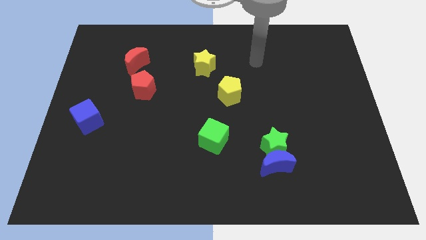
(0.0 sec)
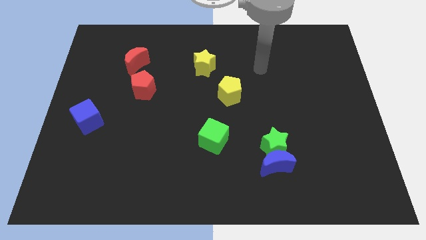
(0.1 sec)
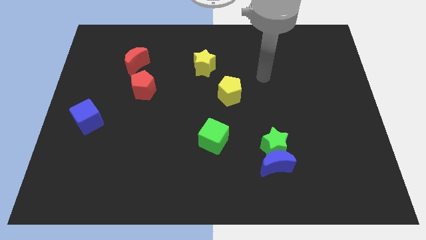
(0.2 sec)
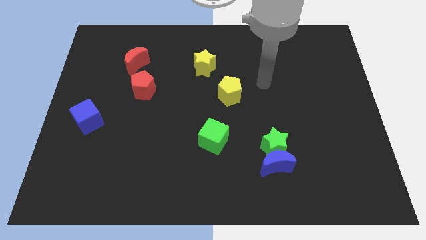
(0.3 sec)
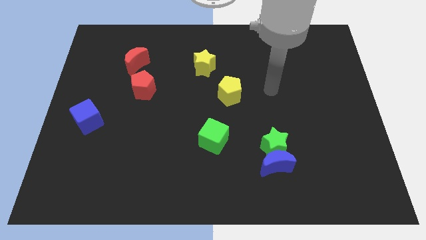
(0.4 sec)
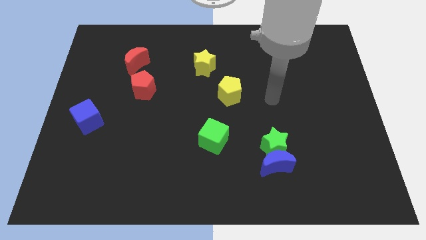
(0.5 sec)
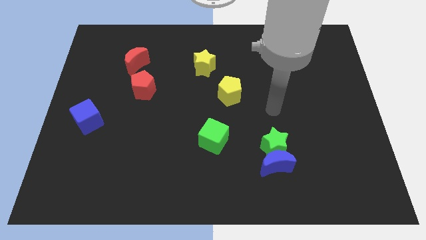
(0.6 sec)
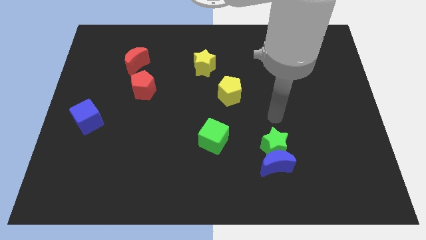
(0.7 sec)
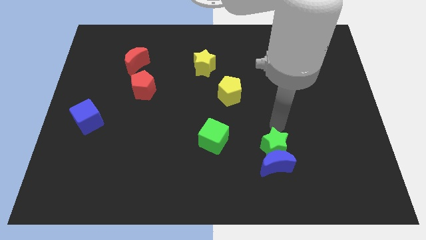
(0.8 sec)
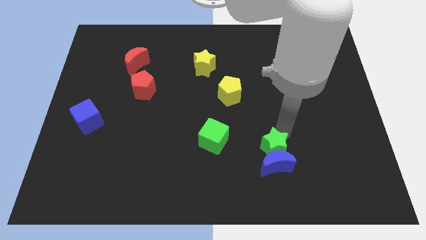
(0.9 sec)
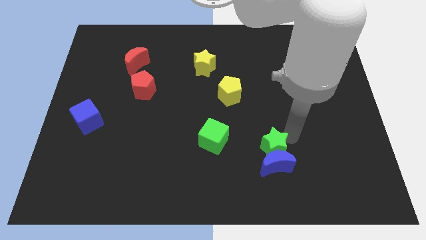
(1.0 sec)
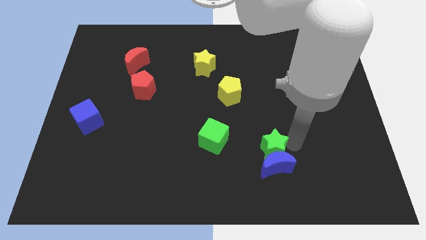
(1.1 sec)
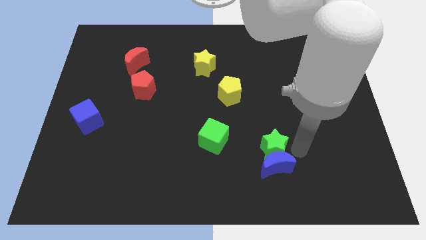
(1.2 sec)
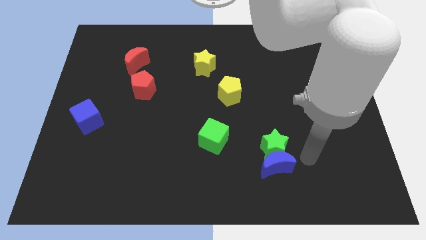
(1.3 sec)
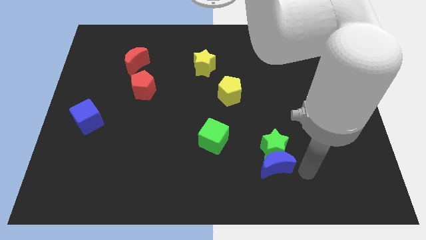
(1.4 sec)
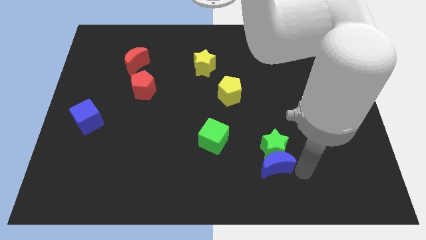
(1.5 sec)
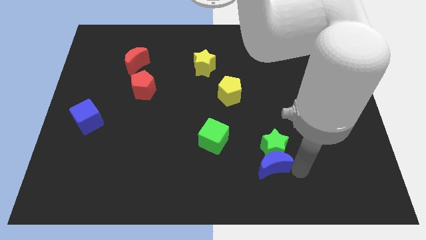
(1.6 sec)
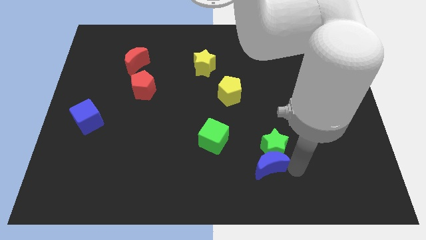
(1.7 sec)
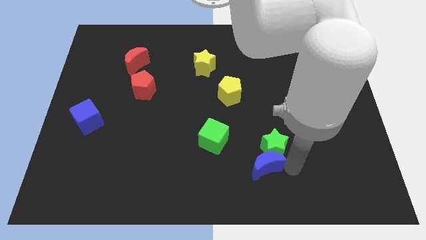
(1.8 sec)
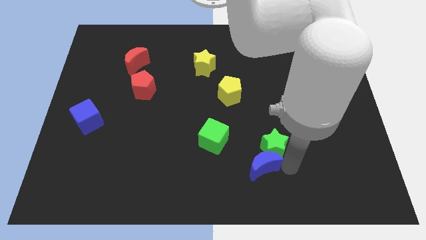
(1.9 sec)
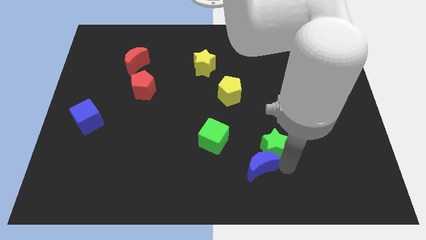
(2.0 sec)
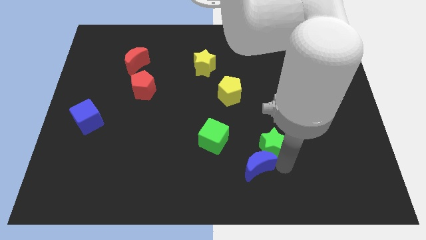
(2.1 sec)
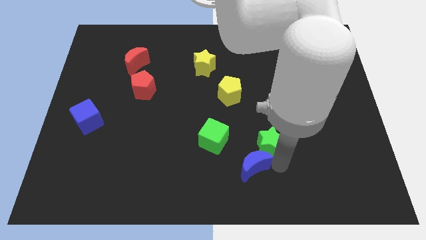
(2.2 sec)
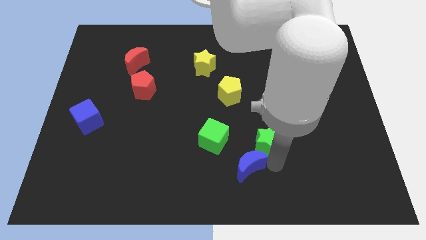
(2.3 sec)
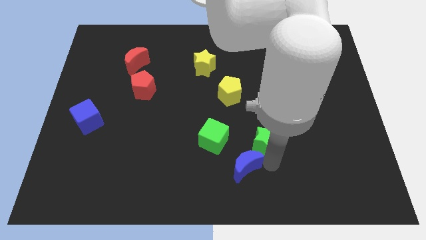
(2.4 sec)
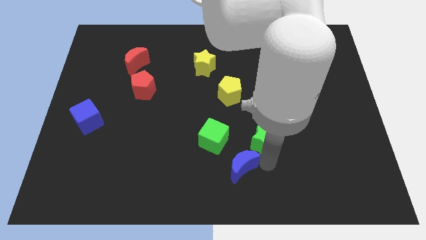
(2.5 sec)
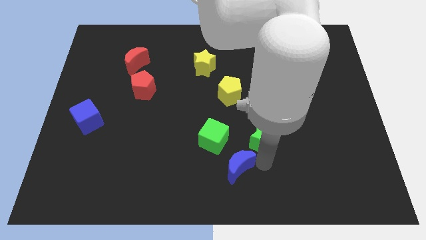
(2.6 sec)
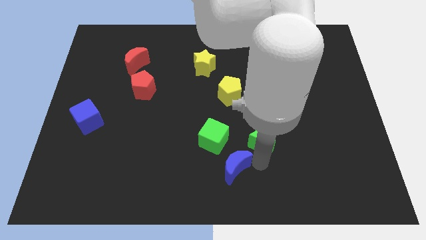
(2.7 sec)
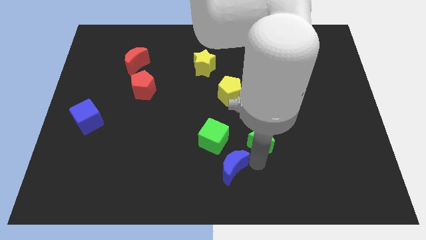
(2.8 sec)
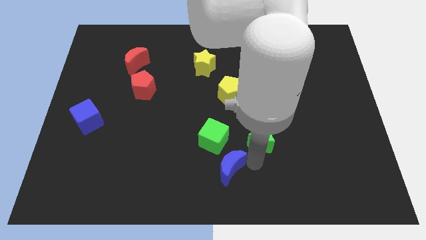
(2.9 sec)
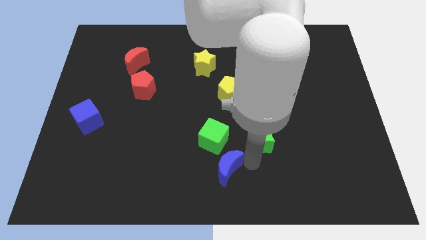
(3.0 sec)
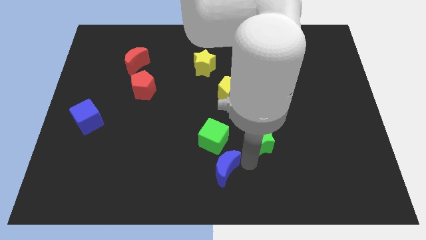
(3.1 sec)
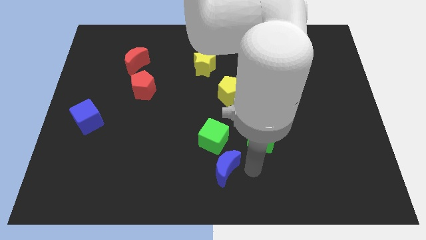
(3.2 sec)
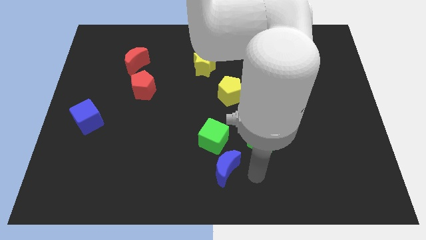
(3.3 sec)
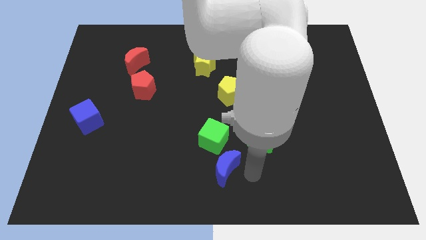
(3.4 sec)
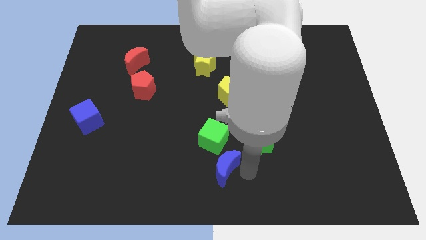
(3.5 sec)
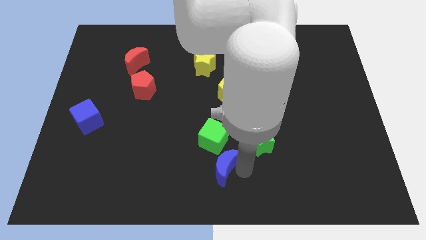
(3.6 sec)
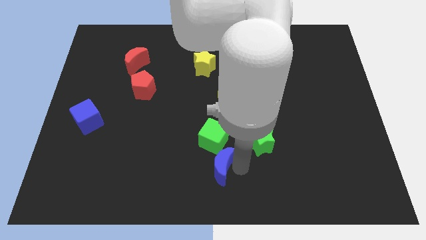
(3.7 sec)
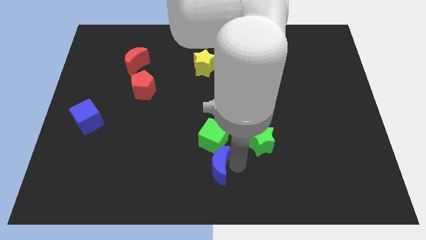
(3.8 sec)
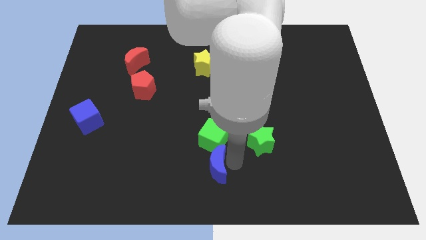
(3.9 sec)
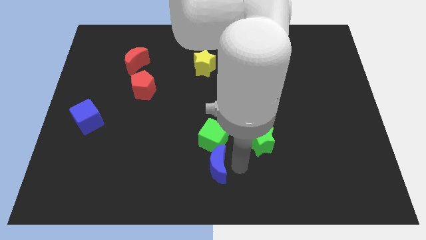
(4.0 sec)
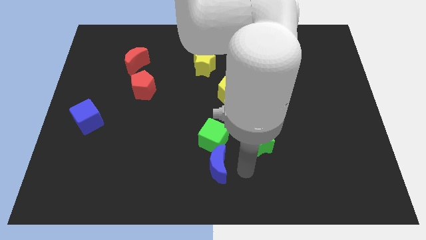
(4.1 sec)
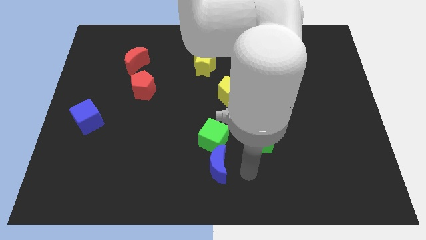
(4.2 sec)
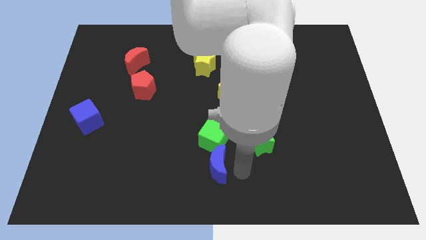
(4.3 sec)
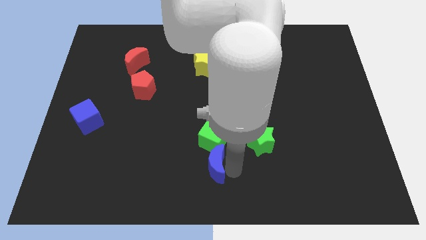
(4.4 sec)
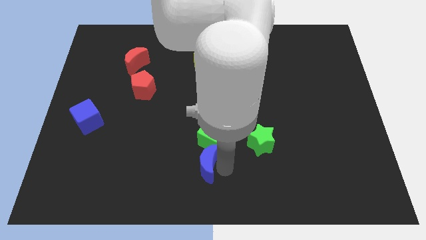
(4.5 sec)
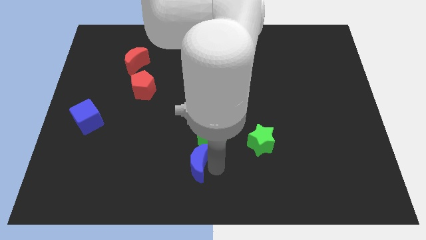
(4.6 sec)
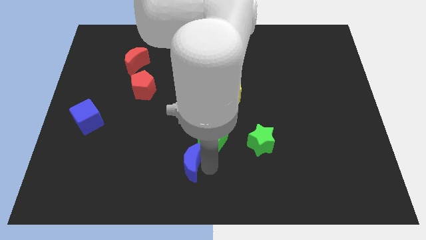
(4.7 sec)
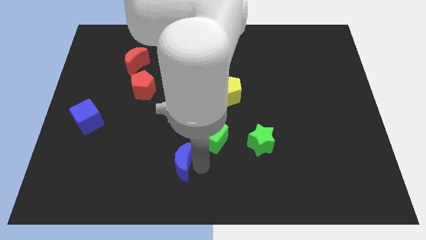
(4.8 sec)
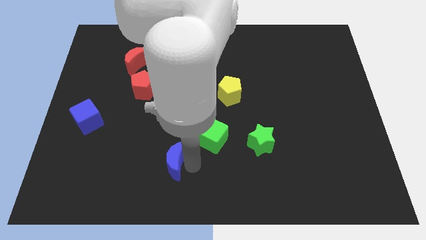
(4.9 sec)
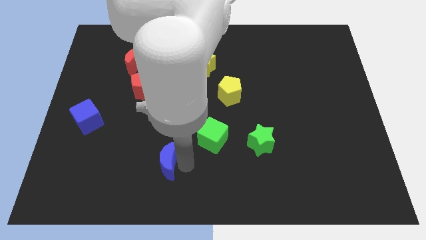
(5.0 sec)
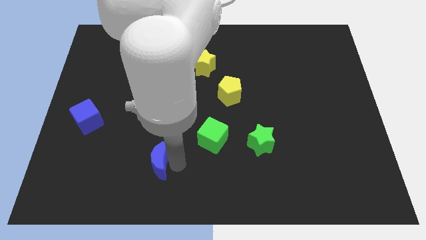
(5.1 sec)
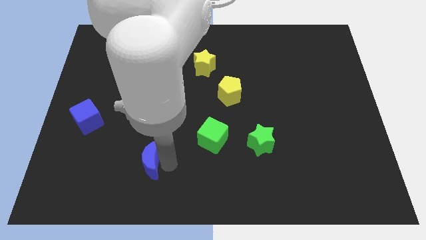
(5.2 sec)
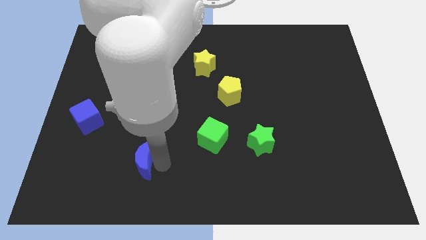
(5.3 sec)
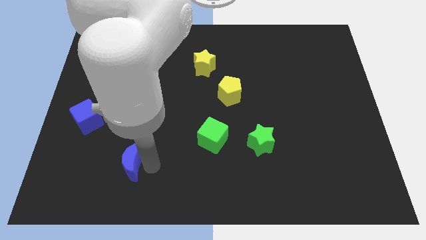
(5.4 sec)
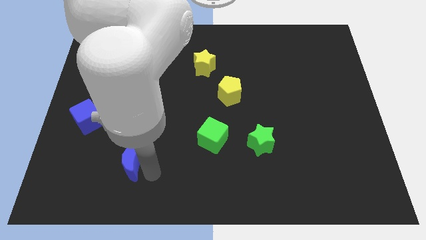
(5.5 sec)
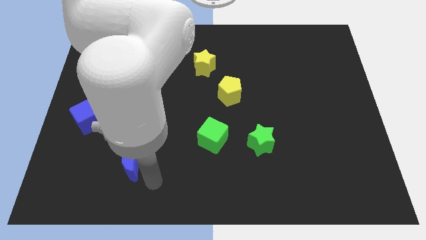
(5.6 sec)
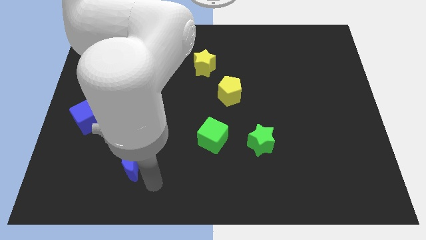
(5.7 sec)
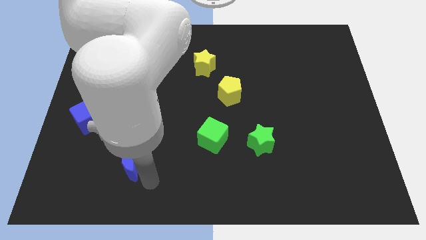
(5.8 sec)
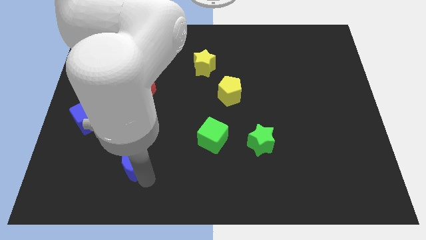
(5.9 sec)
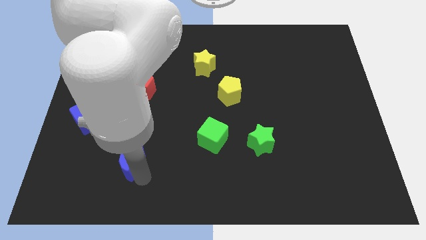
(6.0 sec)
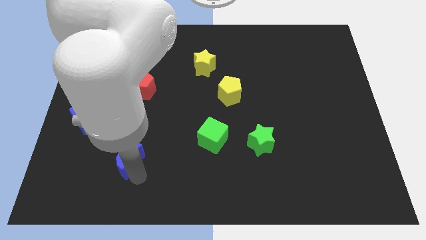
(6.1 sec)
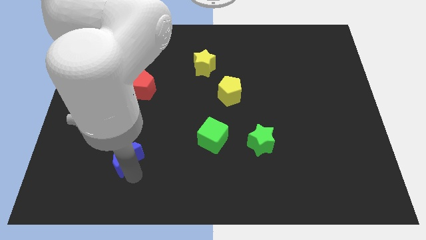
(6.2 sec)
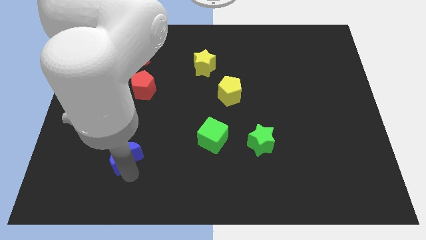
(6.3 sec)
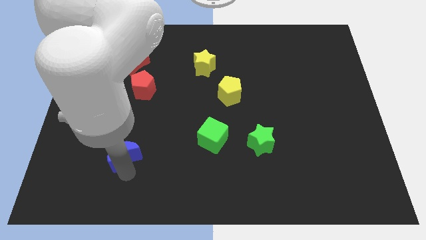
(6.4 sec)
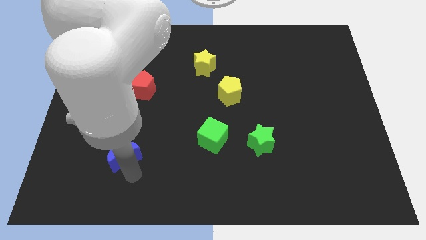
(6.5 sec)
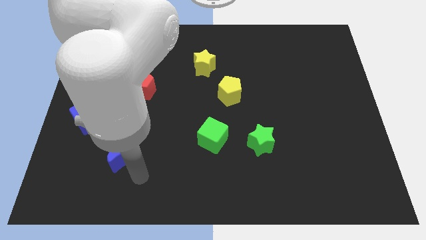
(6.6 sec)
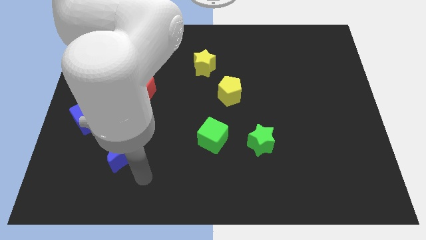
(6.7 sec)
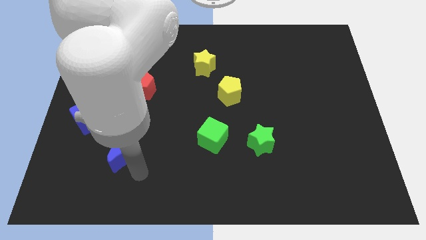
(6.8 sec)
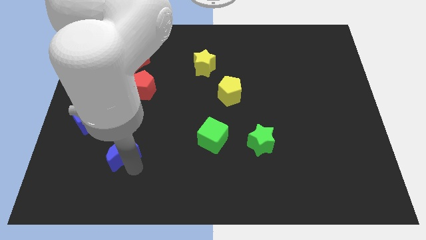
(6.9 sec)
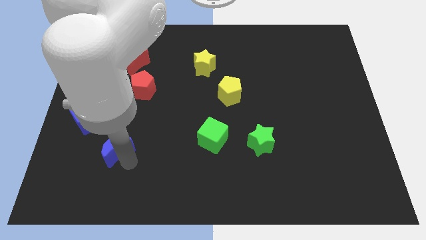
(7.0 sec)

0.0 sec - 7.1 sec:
move the blue moon to the bottom right side of the blue cube
